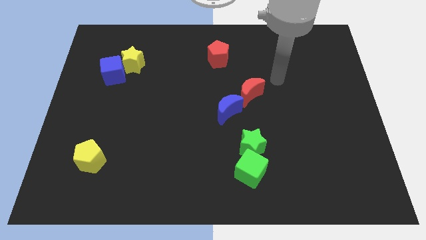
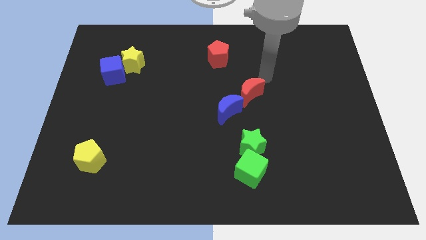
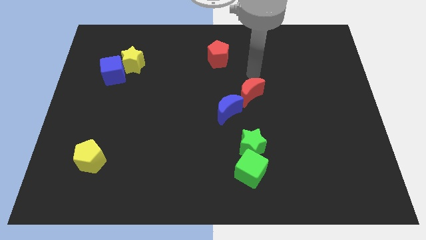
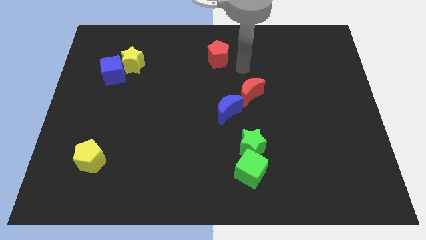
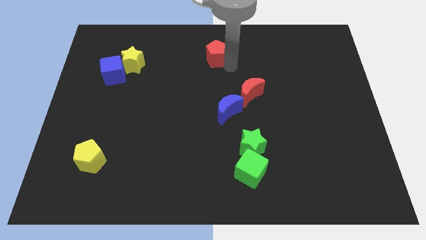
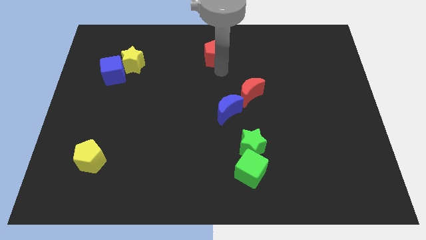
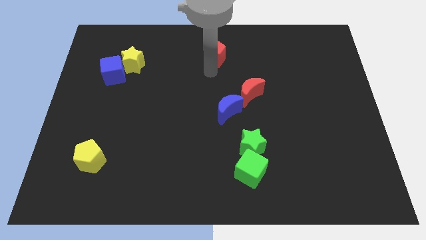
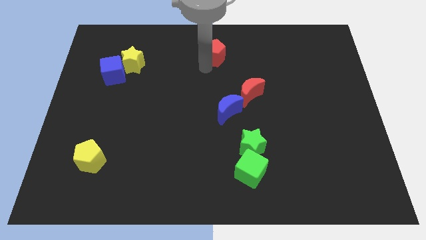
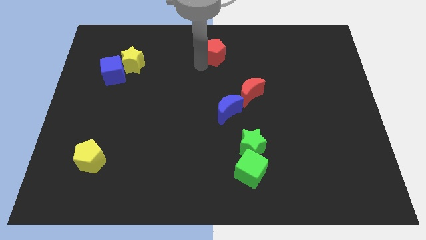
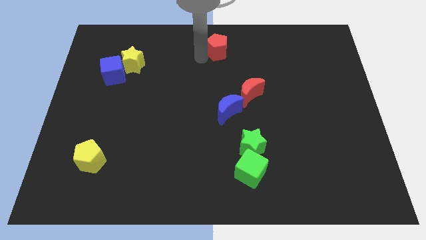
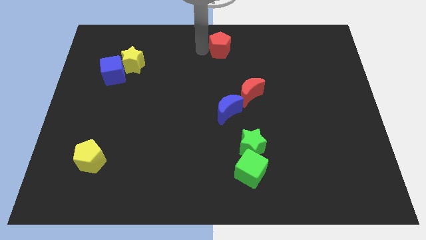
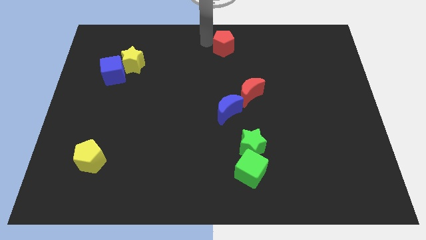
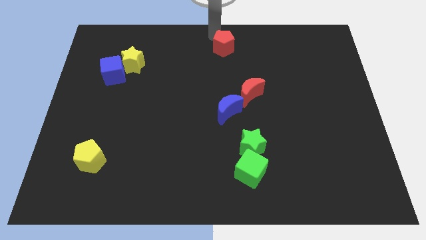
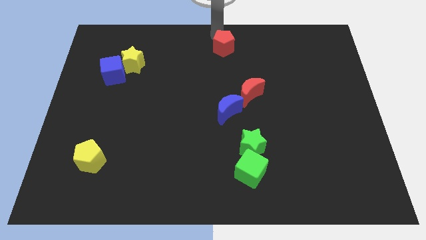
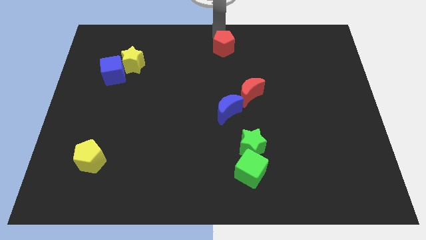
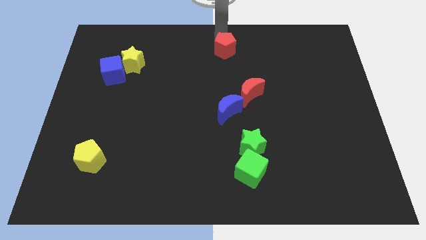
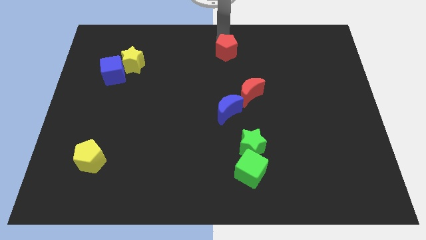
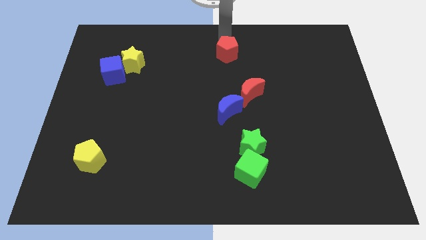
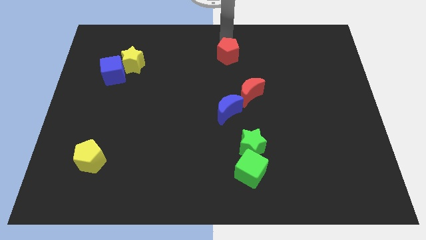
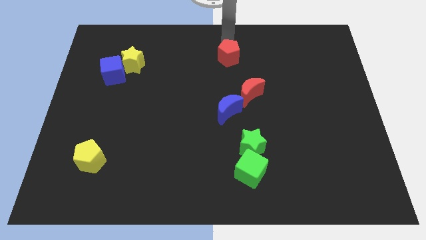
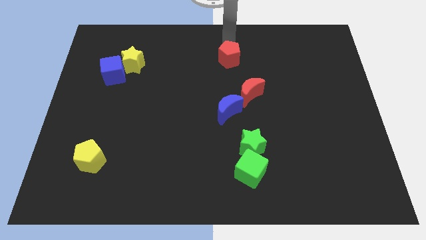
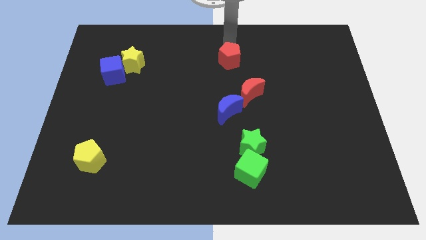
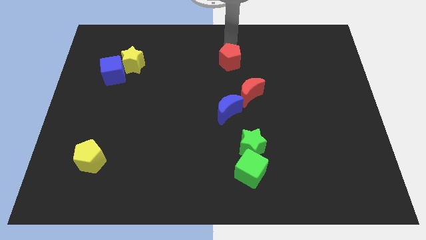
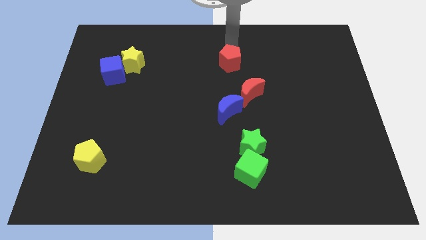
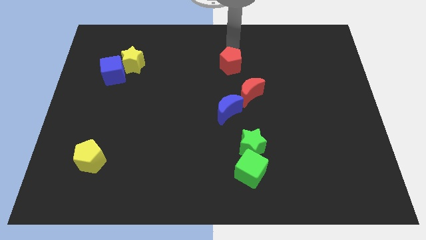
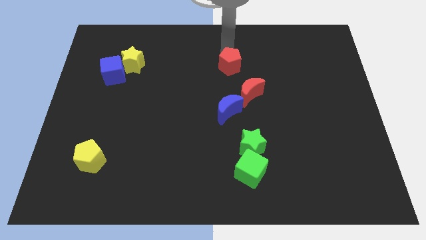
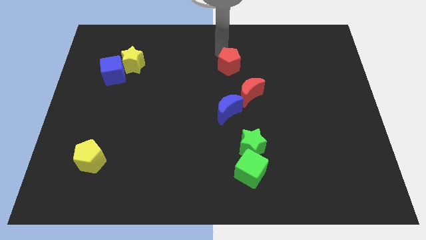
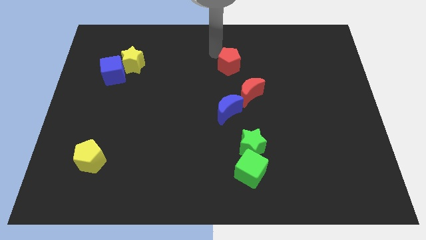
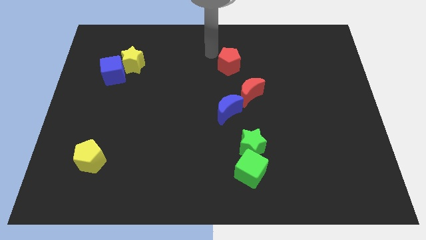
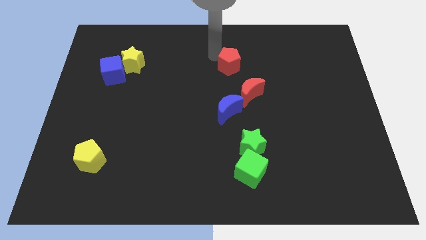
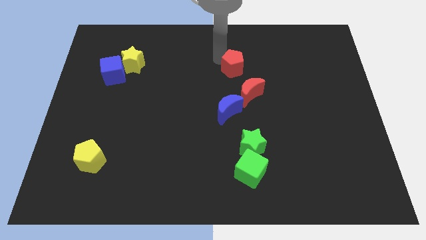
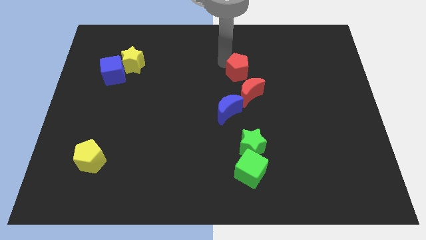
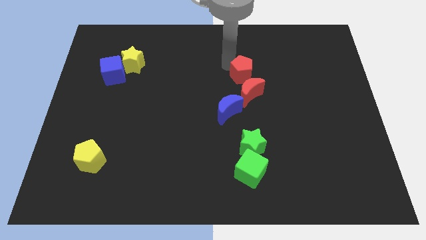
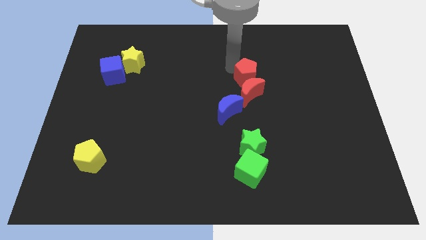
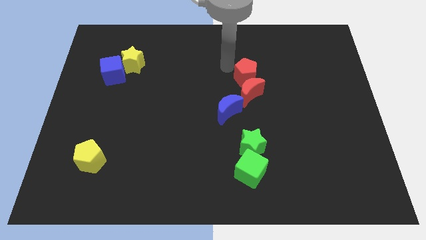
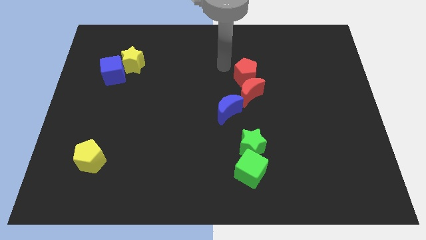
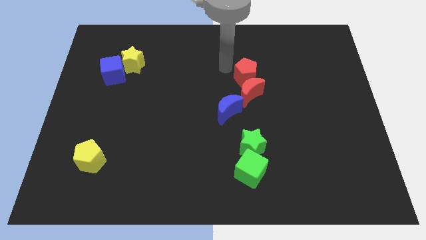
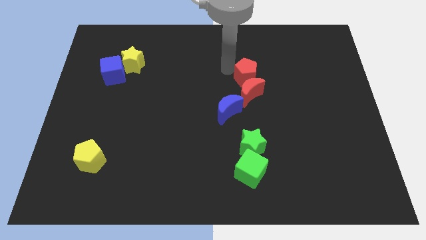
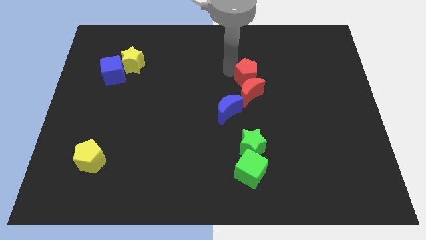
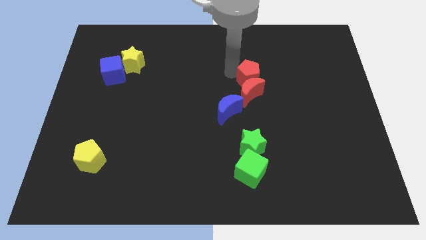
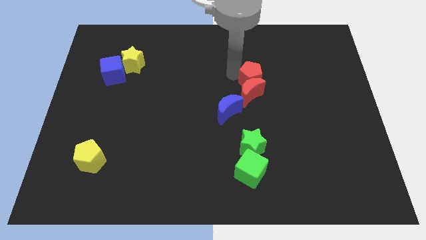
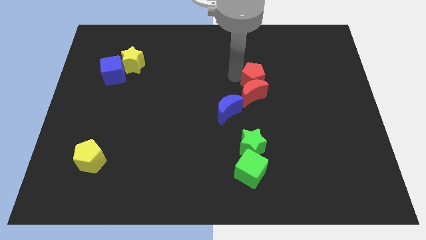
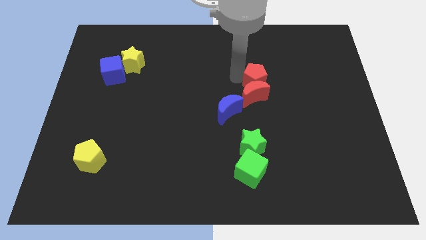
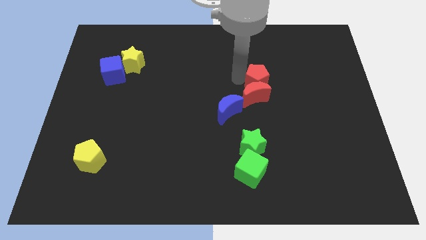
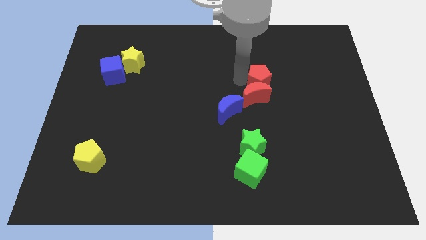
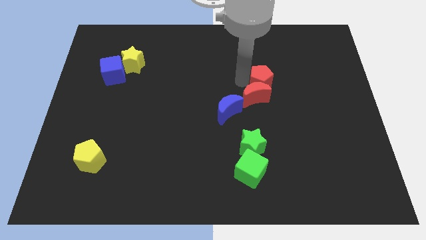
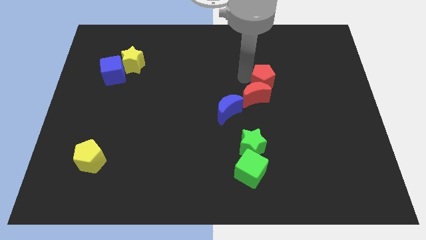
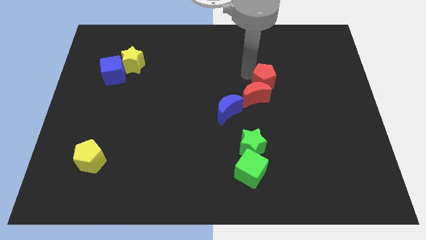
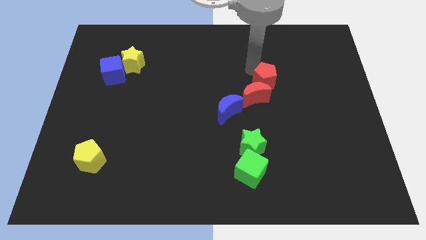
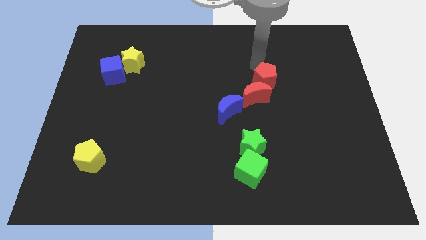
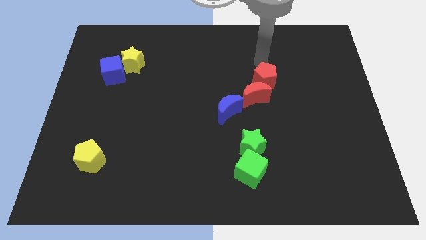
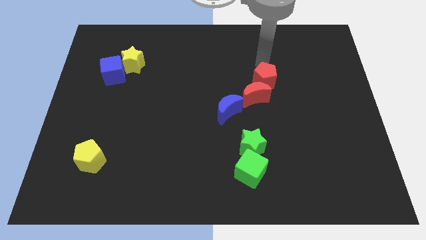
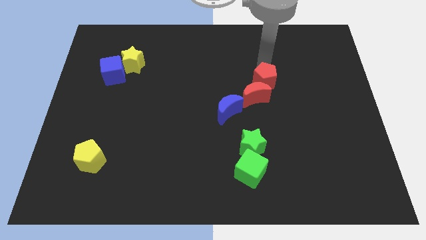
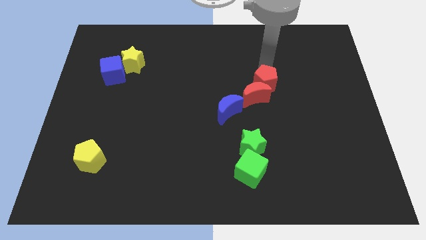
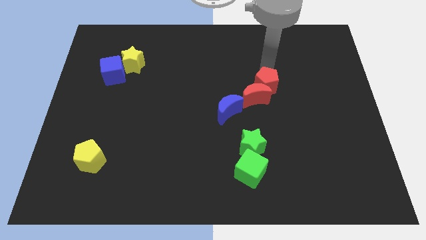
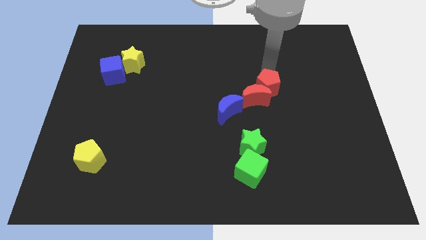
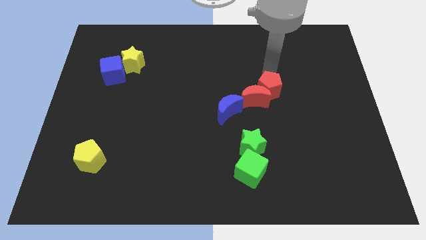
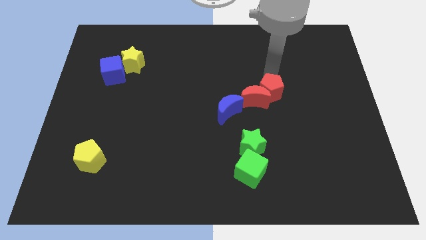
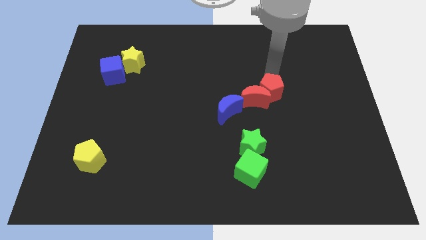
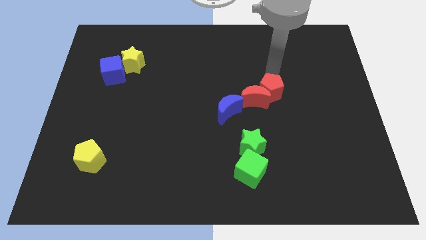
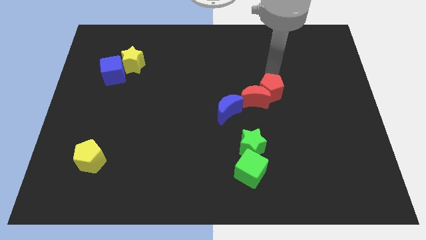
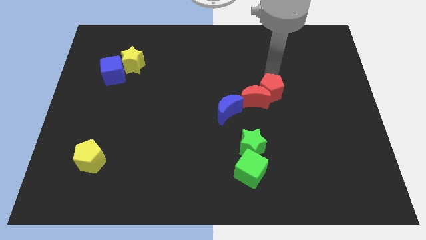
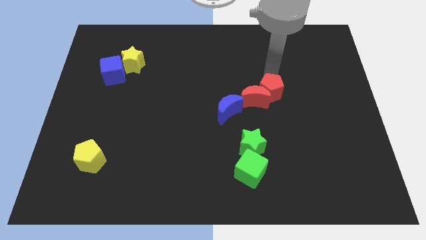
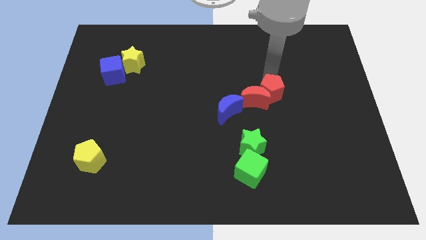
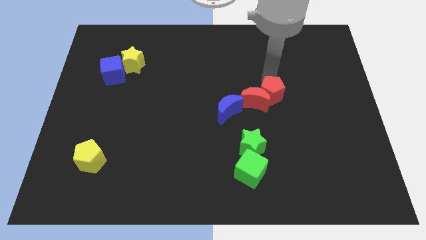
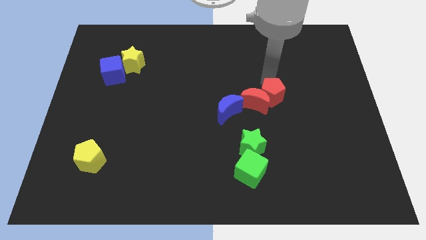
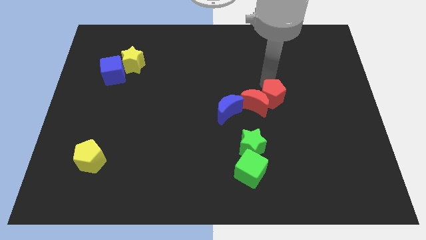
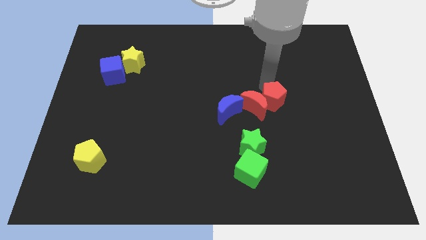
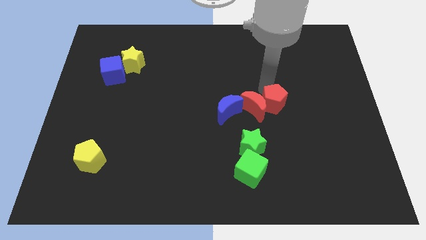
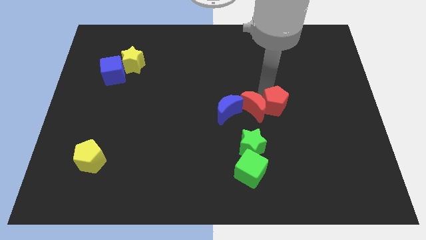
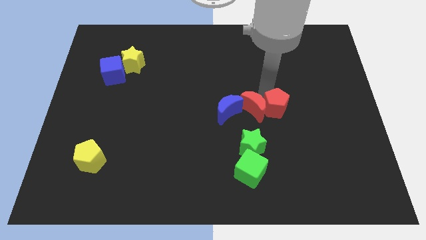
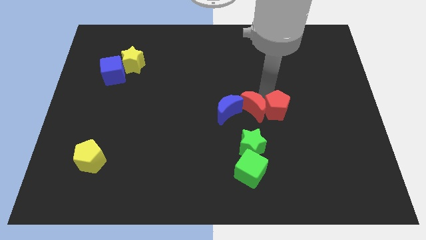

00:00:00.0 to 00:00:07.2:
push the red pentagon to the top right of the green star

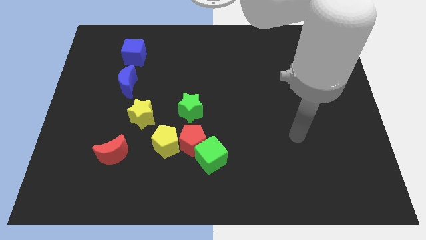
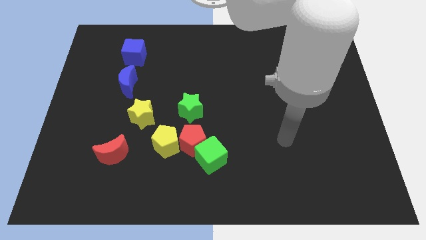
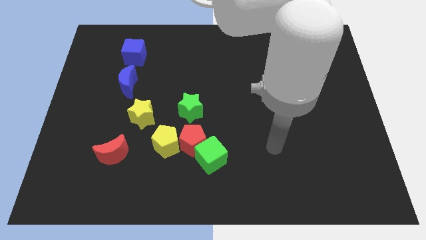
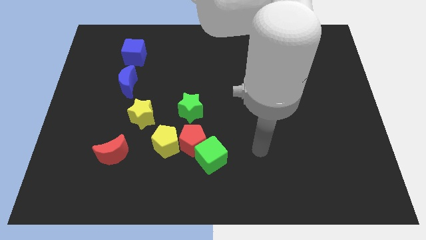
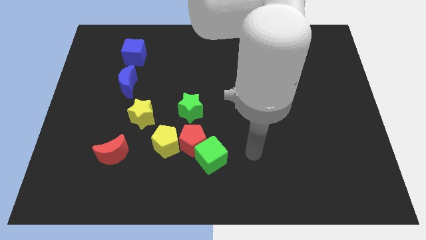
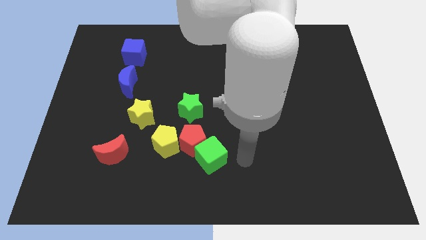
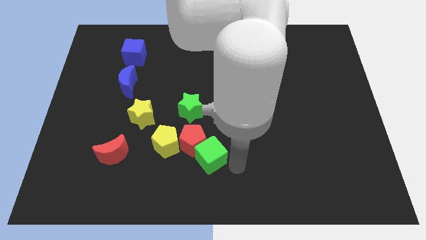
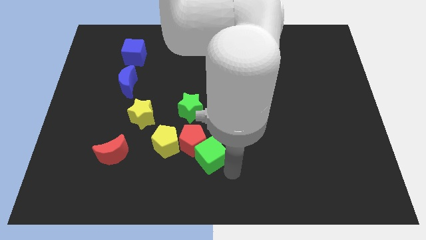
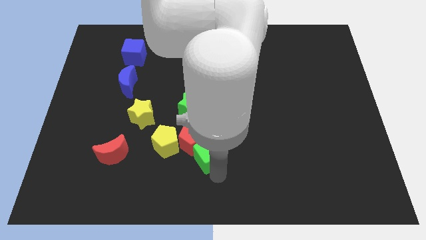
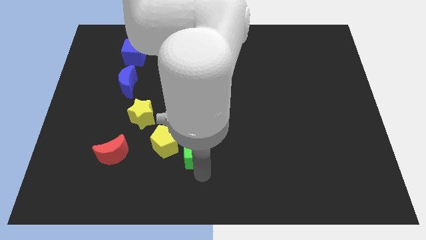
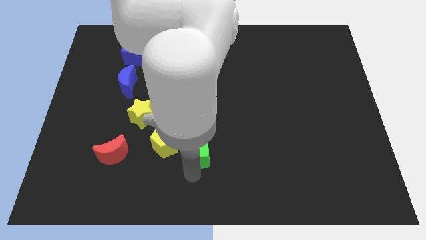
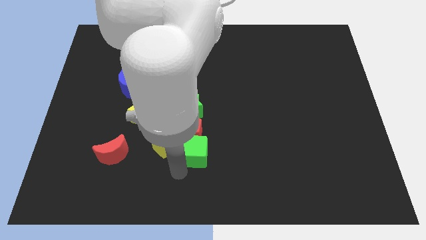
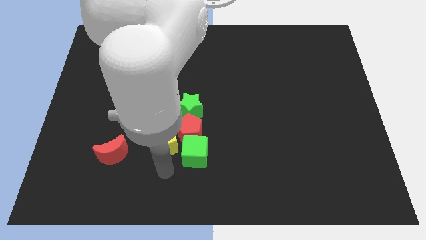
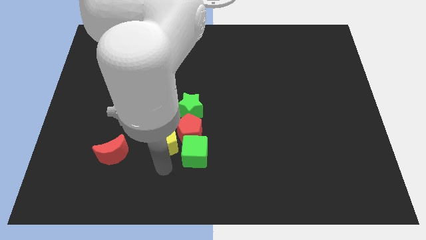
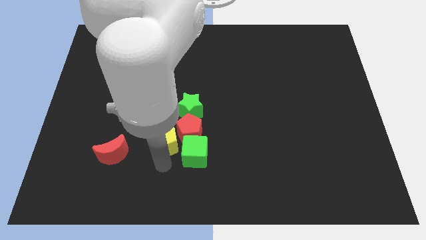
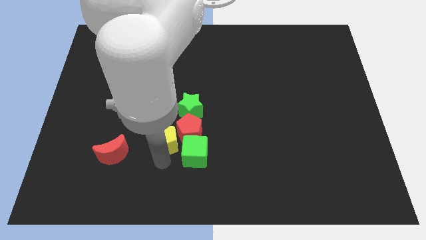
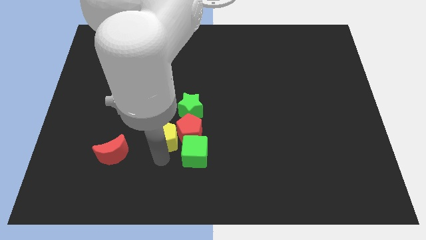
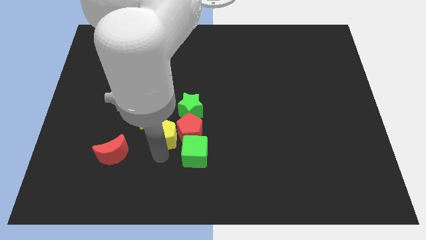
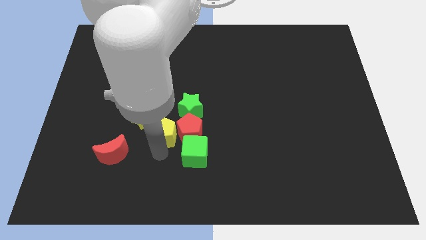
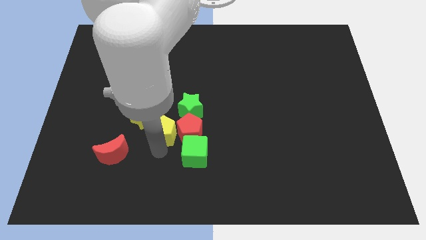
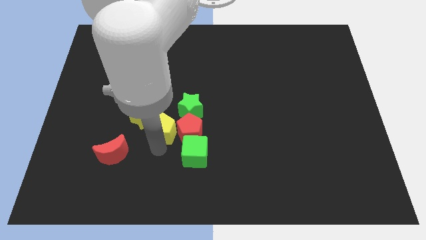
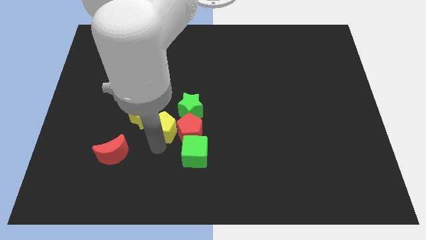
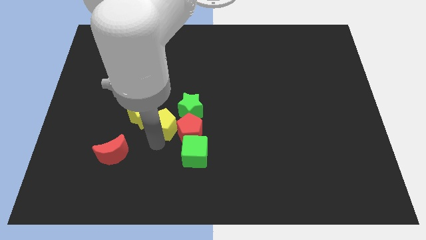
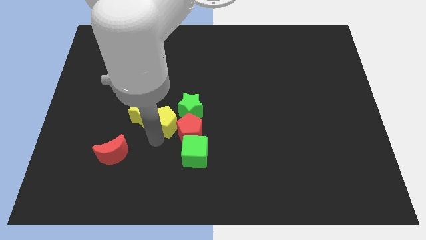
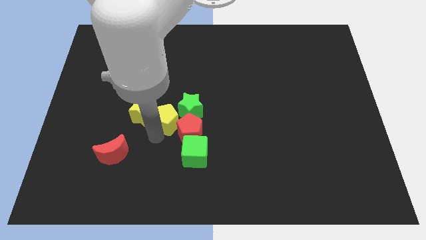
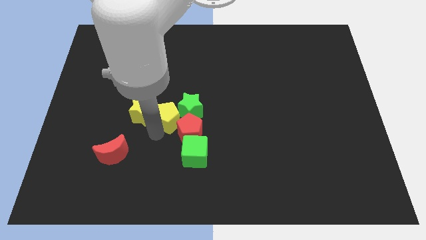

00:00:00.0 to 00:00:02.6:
put the yellow pentagon to the top right of the yellow star
